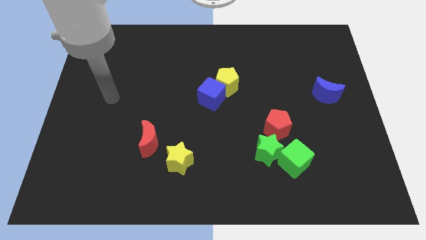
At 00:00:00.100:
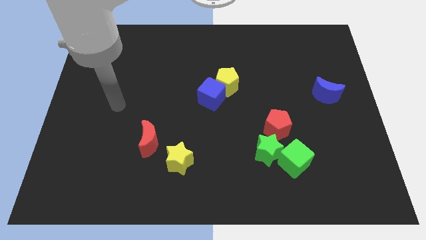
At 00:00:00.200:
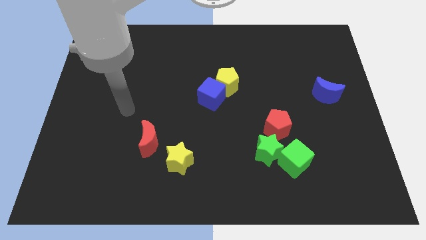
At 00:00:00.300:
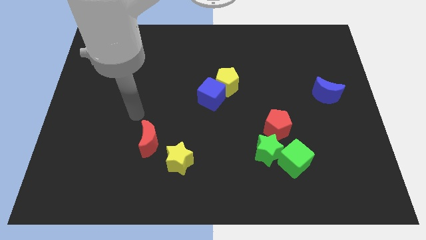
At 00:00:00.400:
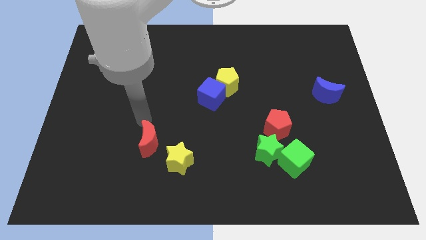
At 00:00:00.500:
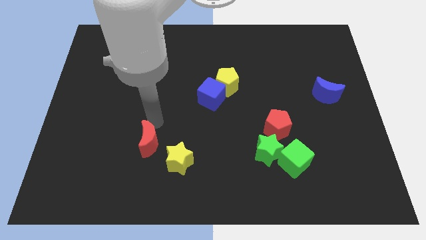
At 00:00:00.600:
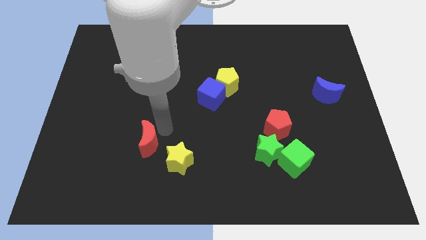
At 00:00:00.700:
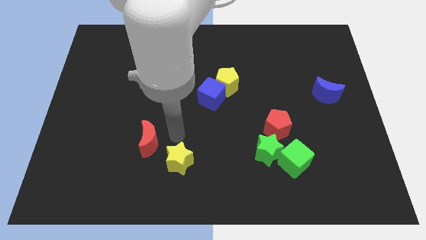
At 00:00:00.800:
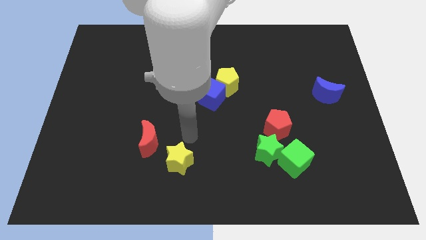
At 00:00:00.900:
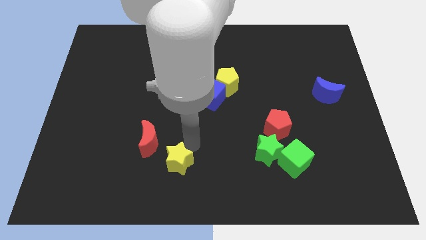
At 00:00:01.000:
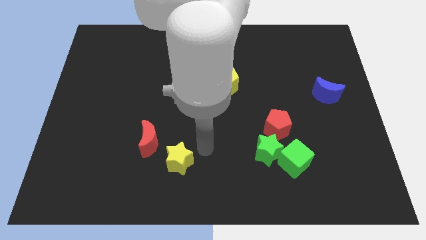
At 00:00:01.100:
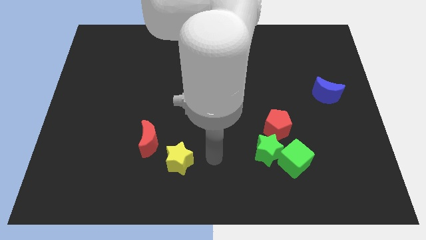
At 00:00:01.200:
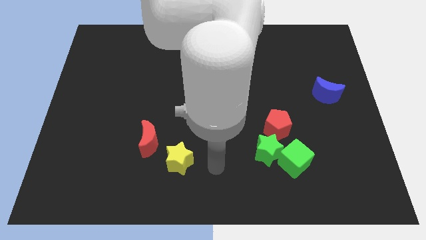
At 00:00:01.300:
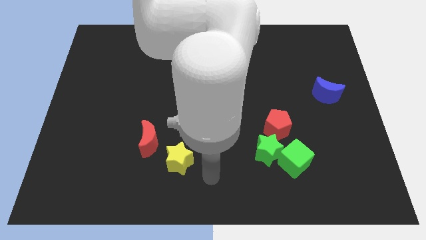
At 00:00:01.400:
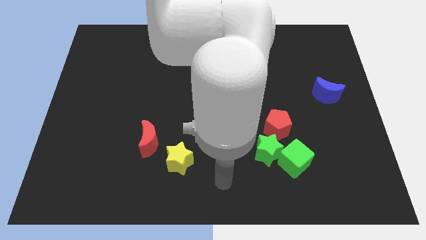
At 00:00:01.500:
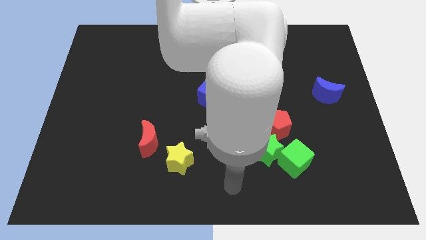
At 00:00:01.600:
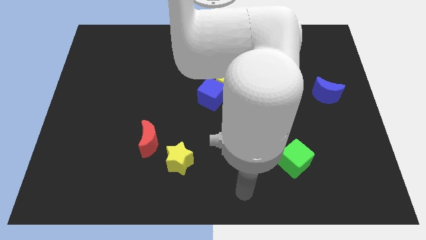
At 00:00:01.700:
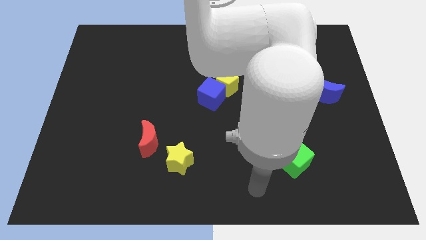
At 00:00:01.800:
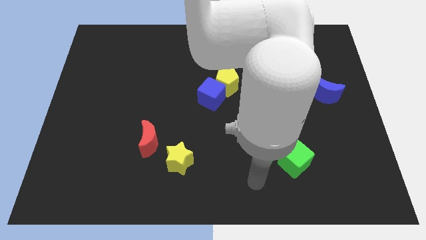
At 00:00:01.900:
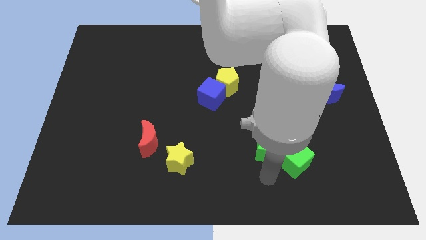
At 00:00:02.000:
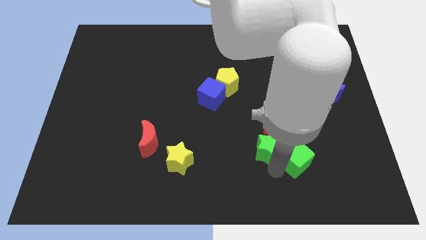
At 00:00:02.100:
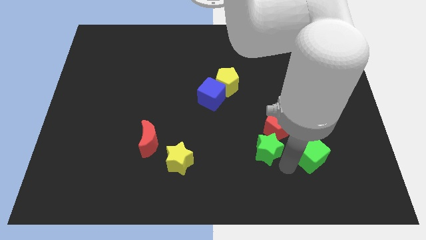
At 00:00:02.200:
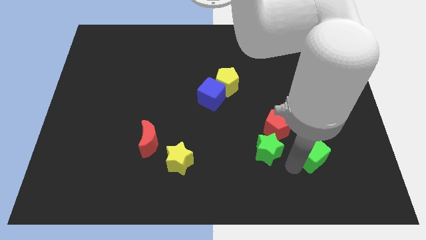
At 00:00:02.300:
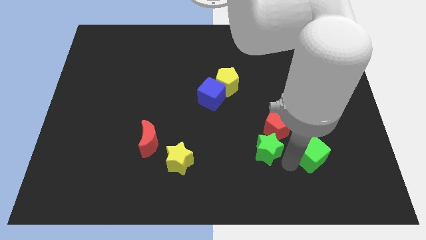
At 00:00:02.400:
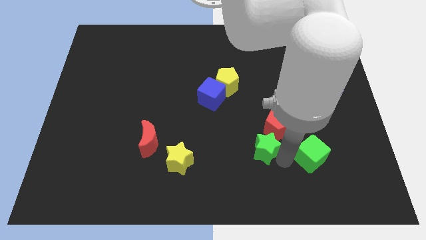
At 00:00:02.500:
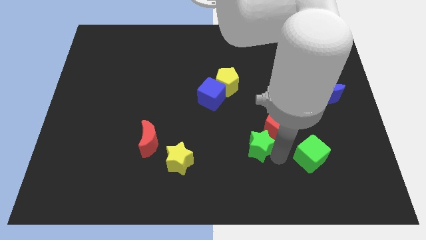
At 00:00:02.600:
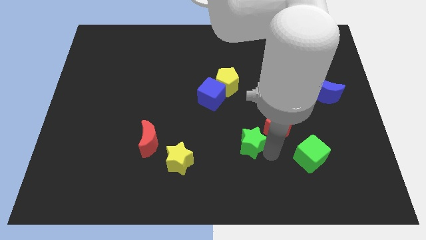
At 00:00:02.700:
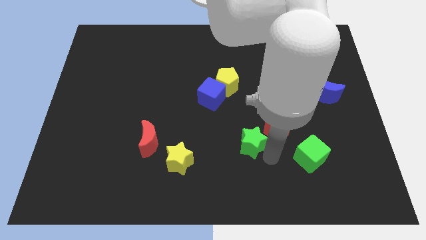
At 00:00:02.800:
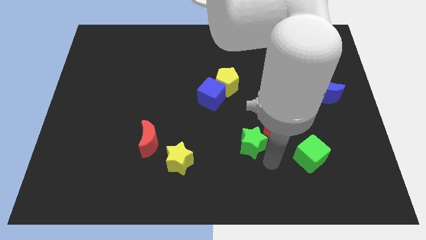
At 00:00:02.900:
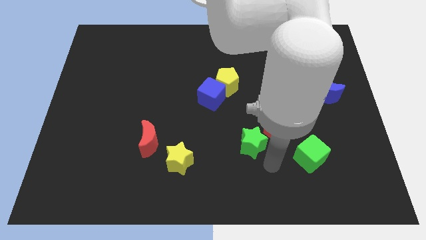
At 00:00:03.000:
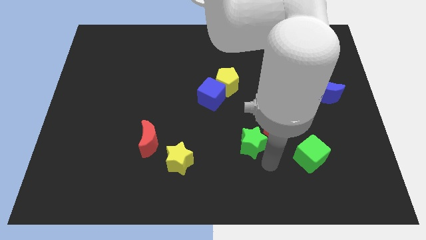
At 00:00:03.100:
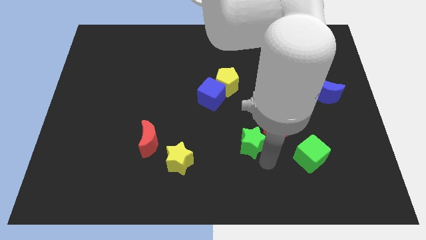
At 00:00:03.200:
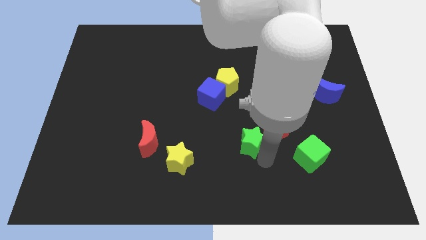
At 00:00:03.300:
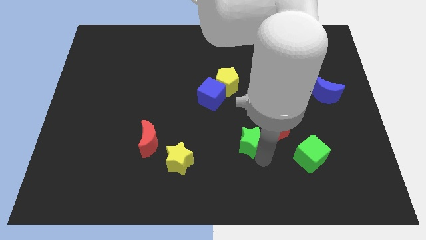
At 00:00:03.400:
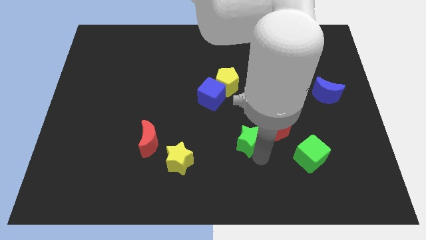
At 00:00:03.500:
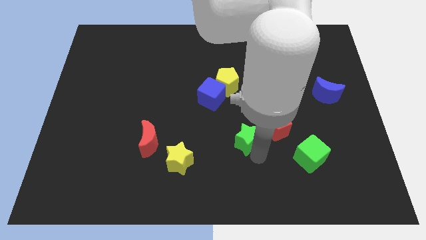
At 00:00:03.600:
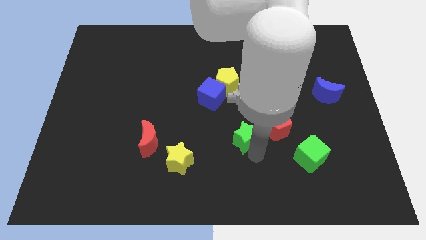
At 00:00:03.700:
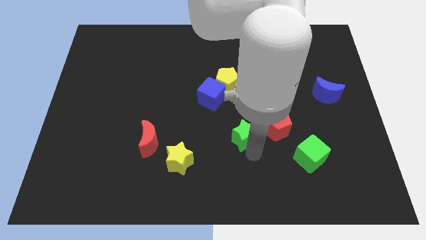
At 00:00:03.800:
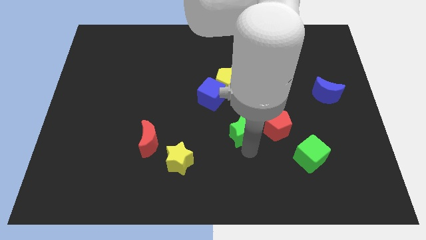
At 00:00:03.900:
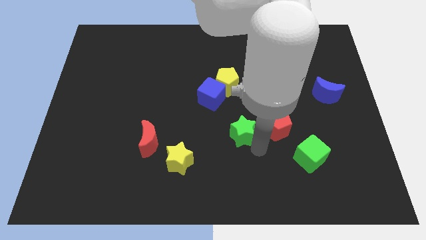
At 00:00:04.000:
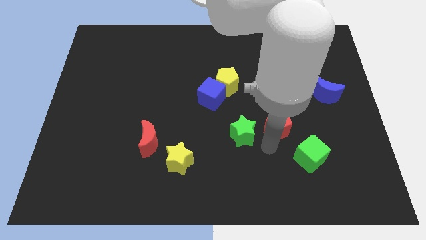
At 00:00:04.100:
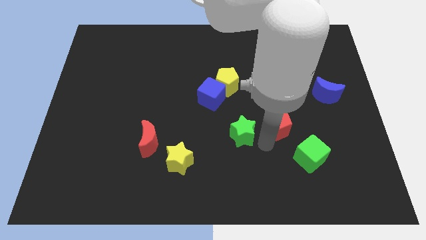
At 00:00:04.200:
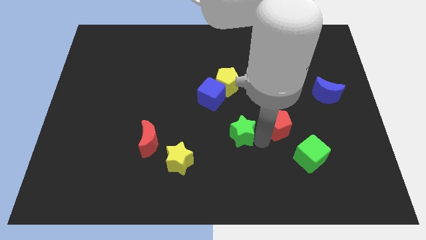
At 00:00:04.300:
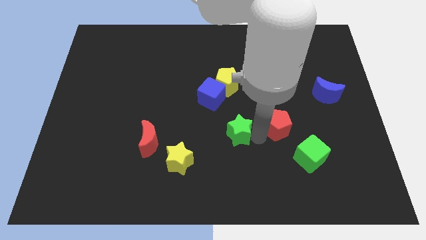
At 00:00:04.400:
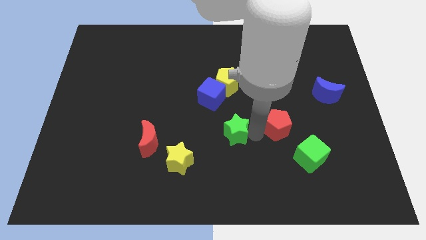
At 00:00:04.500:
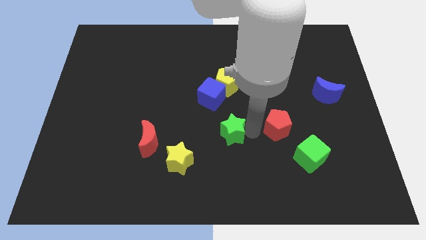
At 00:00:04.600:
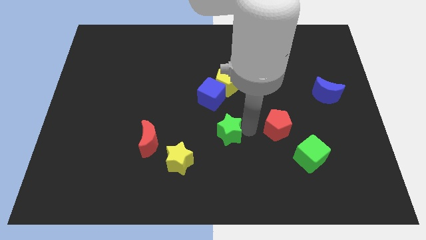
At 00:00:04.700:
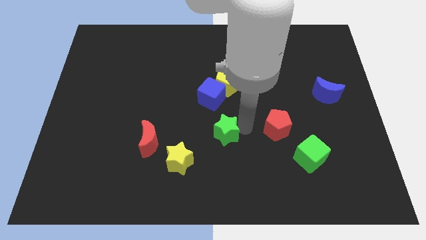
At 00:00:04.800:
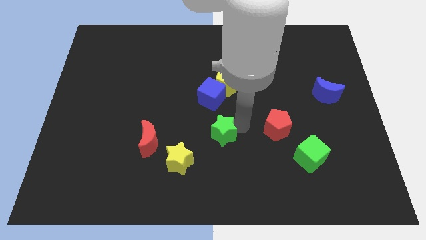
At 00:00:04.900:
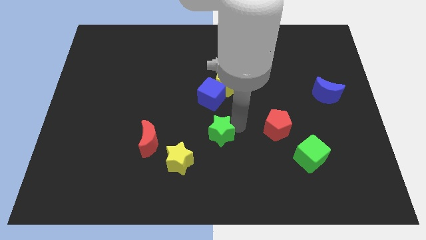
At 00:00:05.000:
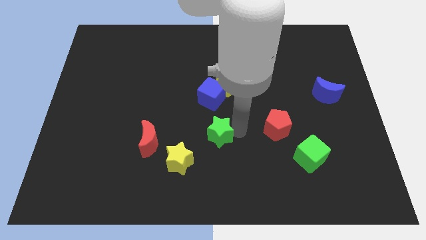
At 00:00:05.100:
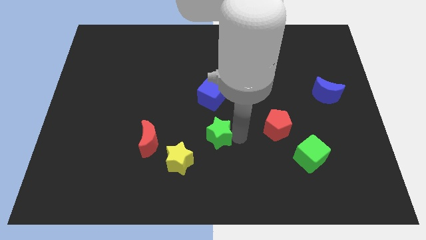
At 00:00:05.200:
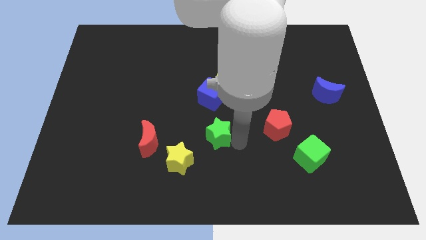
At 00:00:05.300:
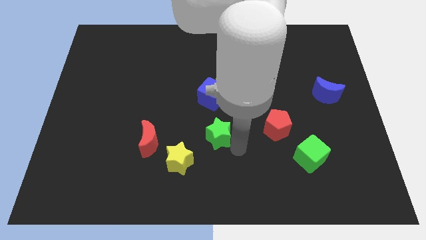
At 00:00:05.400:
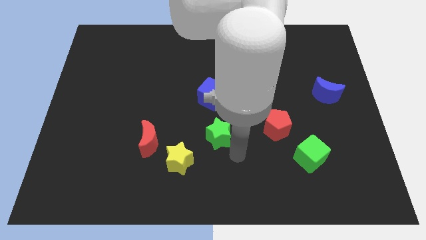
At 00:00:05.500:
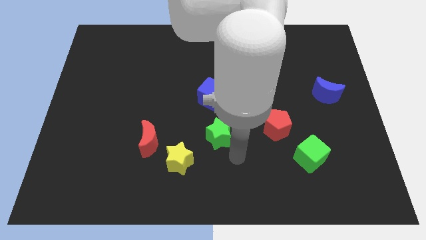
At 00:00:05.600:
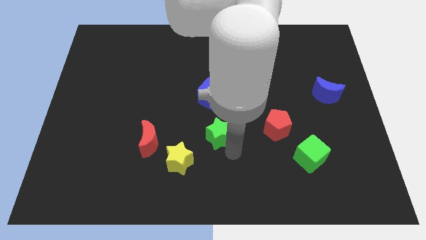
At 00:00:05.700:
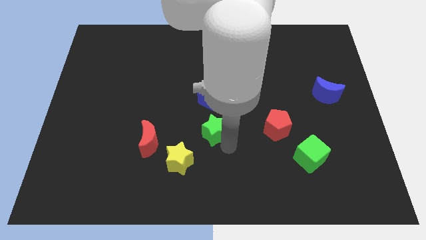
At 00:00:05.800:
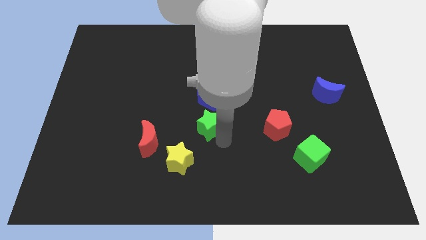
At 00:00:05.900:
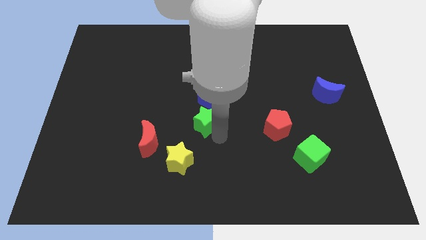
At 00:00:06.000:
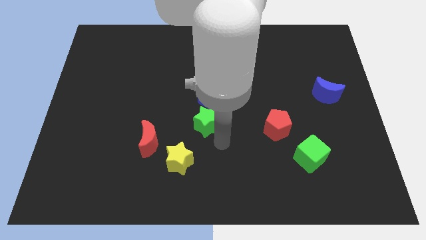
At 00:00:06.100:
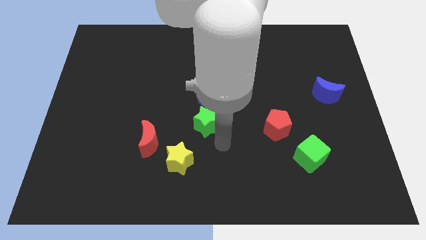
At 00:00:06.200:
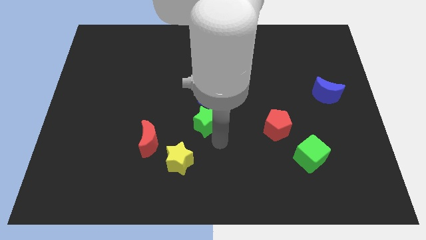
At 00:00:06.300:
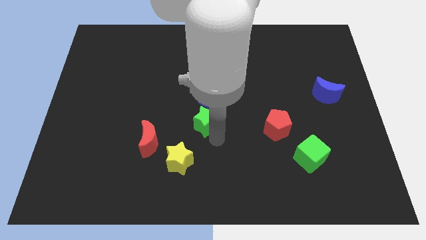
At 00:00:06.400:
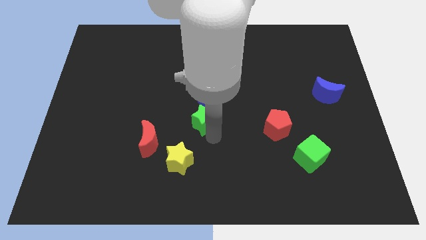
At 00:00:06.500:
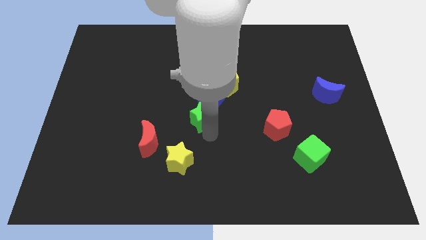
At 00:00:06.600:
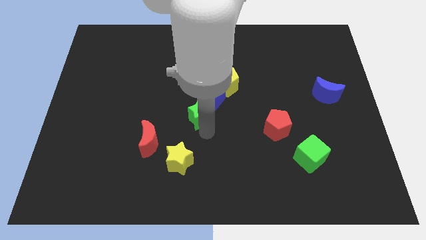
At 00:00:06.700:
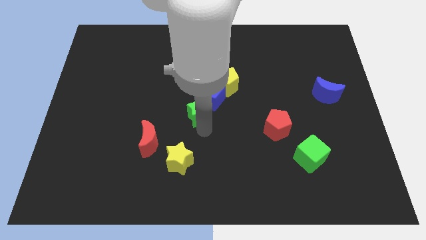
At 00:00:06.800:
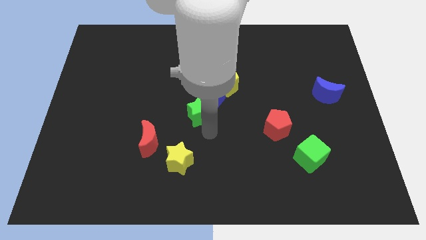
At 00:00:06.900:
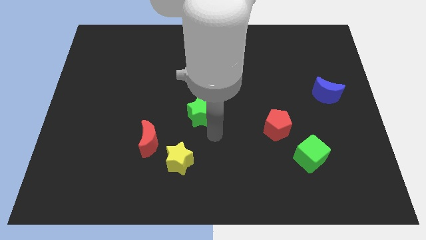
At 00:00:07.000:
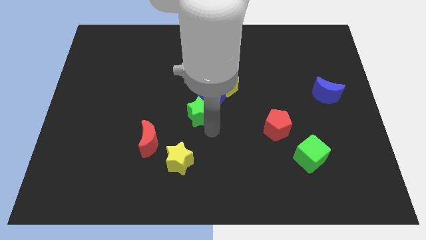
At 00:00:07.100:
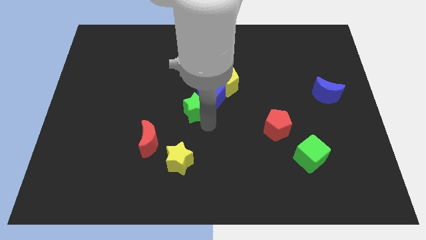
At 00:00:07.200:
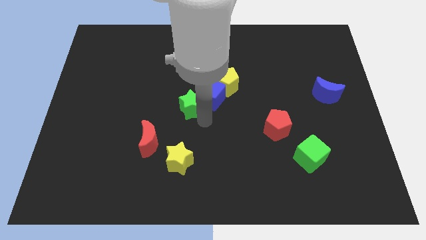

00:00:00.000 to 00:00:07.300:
push the green star up and then left

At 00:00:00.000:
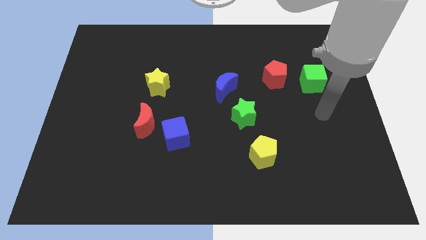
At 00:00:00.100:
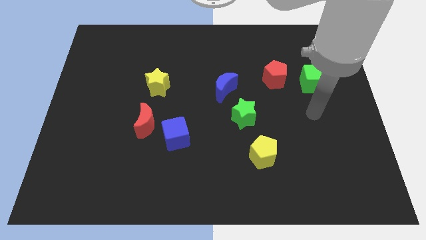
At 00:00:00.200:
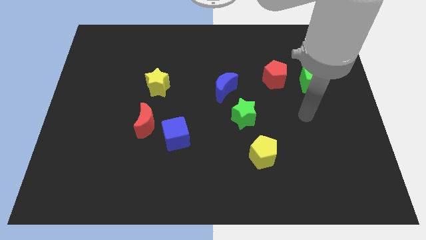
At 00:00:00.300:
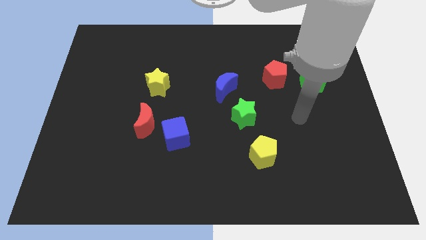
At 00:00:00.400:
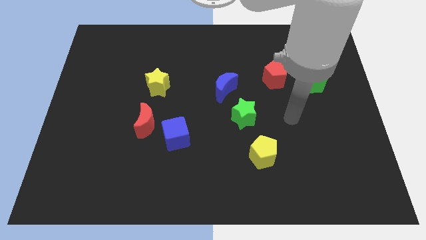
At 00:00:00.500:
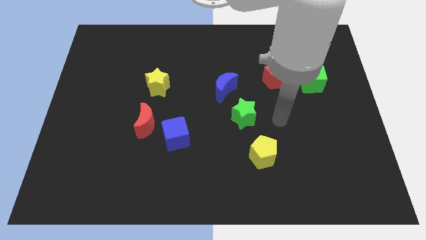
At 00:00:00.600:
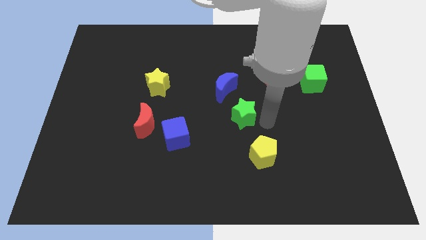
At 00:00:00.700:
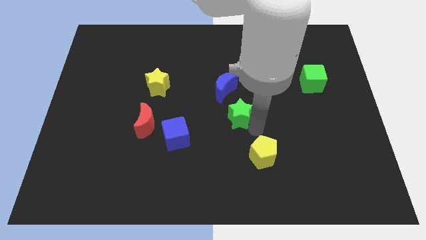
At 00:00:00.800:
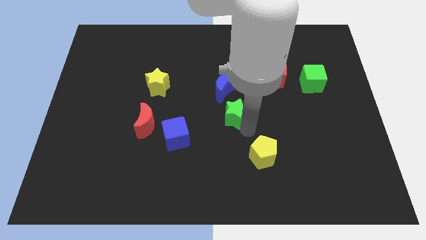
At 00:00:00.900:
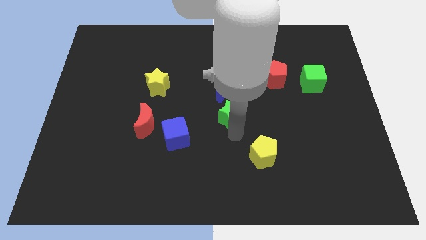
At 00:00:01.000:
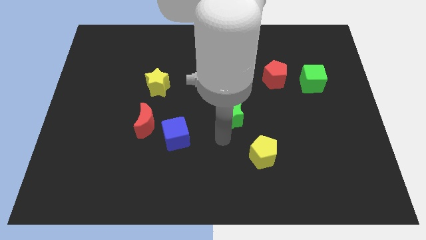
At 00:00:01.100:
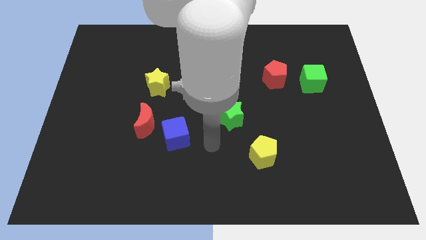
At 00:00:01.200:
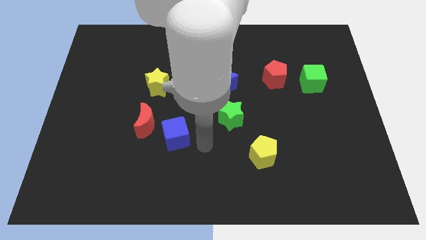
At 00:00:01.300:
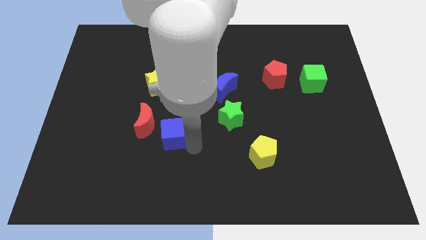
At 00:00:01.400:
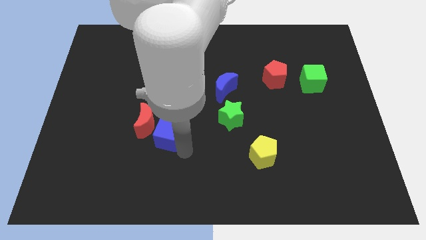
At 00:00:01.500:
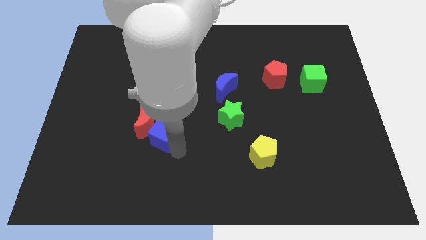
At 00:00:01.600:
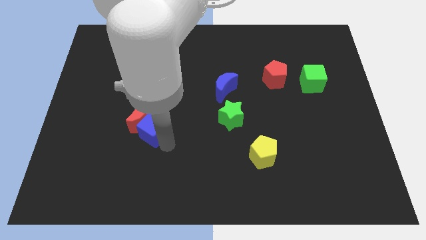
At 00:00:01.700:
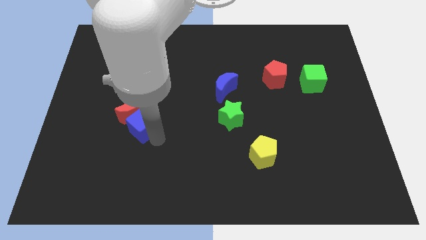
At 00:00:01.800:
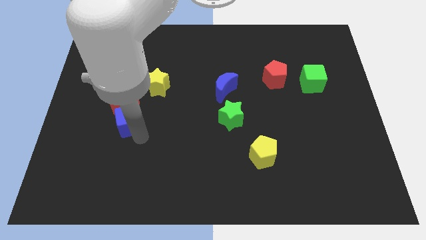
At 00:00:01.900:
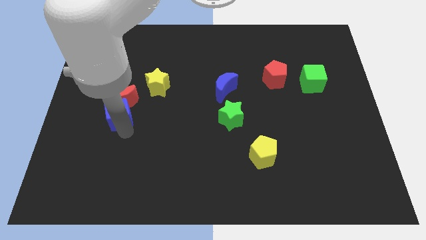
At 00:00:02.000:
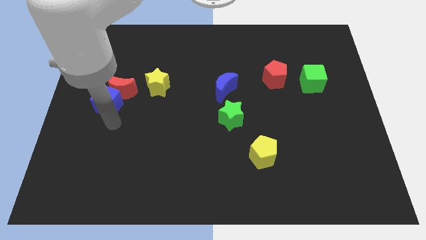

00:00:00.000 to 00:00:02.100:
slide the red moon a little bit up
